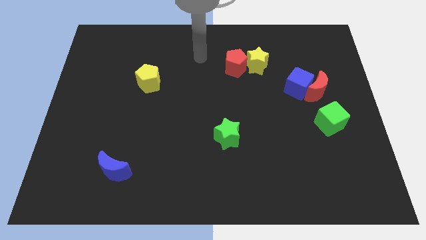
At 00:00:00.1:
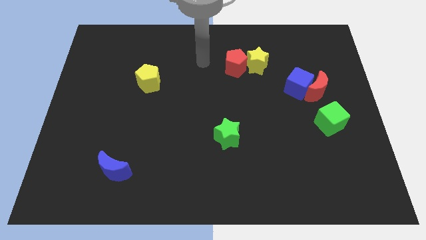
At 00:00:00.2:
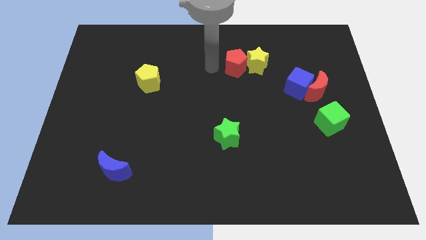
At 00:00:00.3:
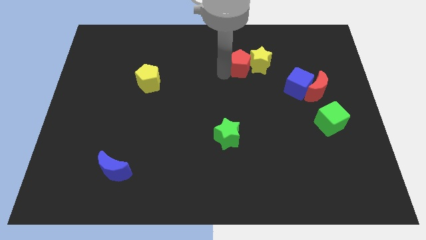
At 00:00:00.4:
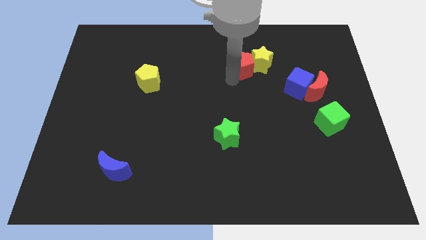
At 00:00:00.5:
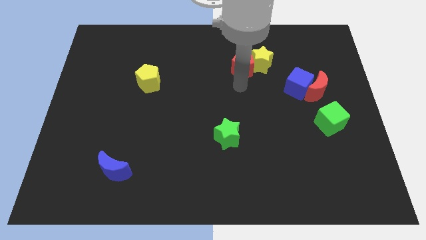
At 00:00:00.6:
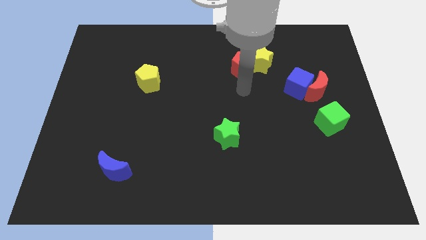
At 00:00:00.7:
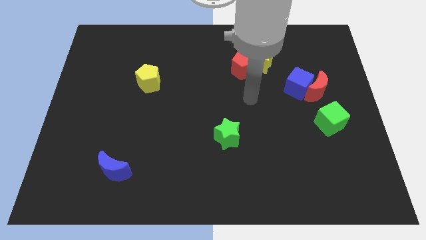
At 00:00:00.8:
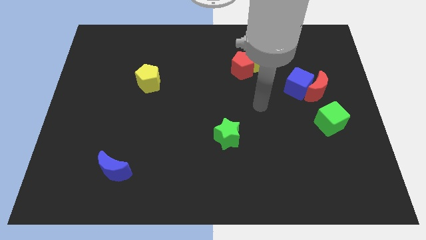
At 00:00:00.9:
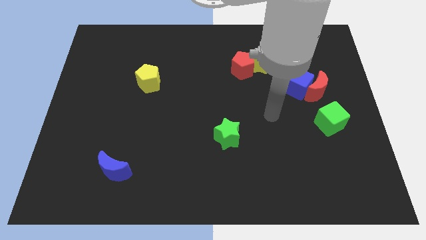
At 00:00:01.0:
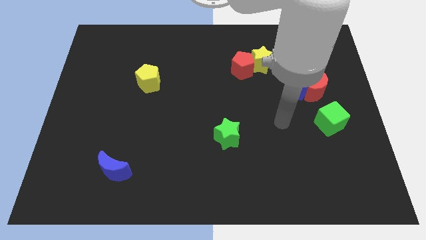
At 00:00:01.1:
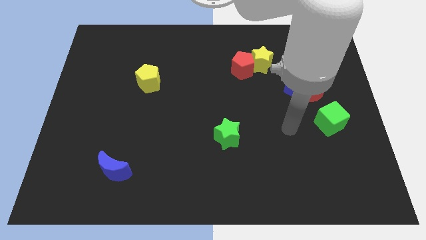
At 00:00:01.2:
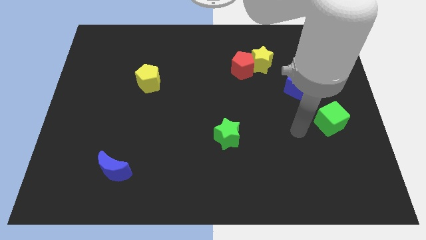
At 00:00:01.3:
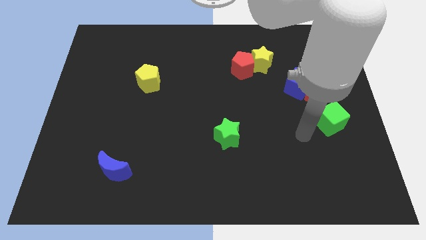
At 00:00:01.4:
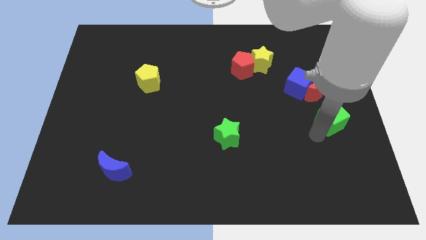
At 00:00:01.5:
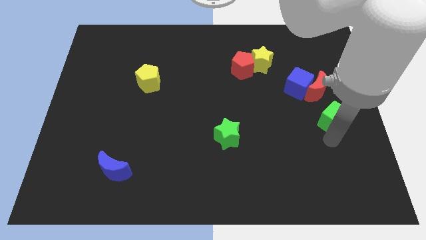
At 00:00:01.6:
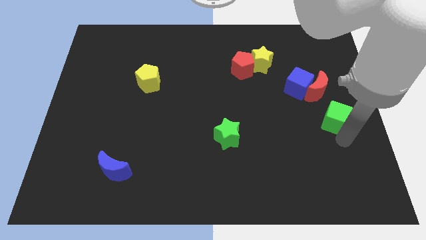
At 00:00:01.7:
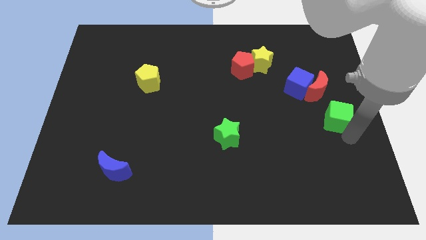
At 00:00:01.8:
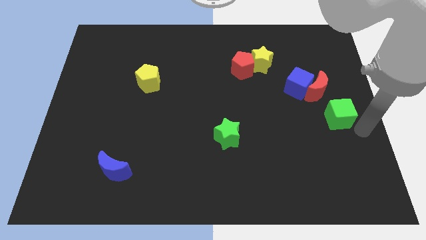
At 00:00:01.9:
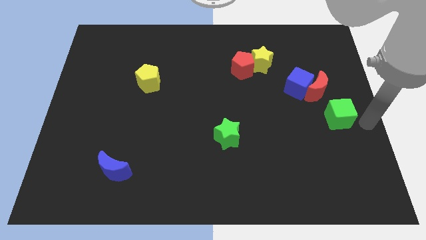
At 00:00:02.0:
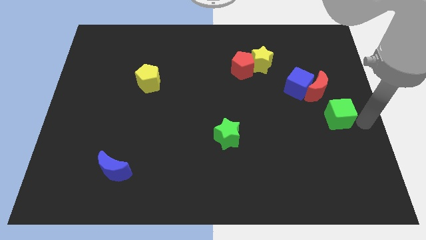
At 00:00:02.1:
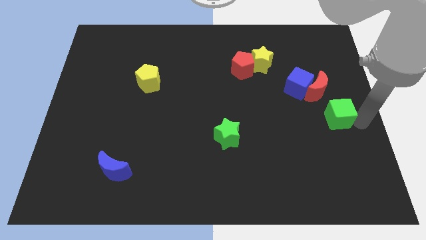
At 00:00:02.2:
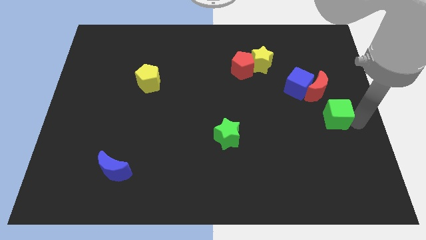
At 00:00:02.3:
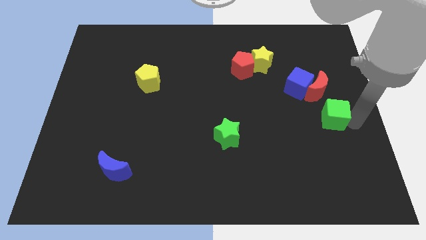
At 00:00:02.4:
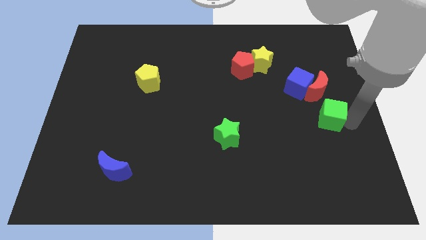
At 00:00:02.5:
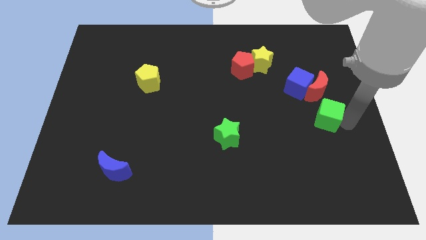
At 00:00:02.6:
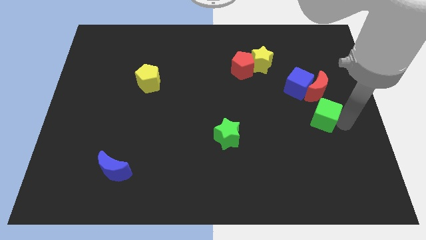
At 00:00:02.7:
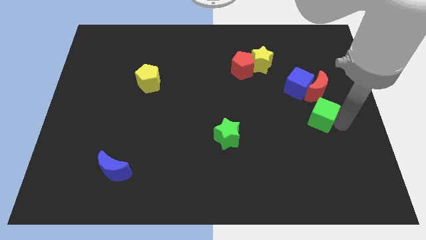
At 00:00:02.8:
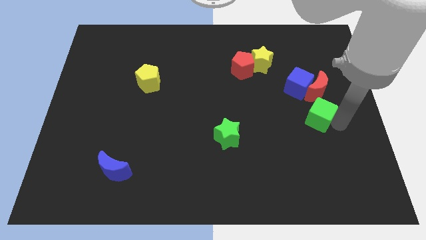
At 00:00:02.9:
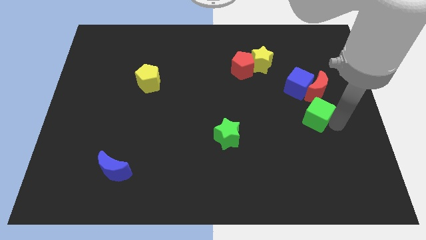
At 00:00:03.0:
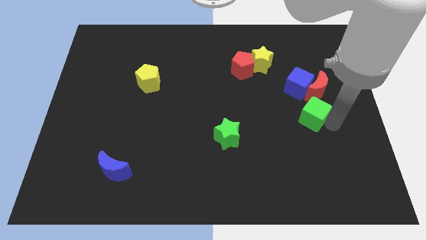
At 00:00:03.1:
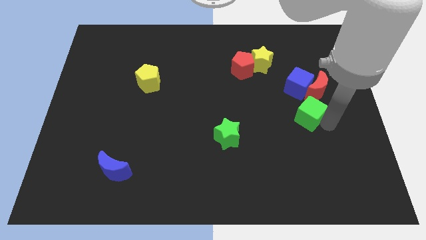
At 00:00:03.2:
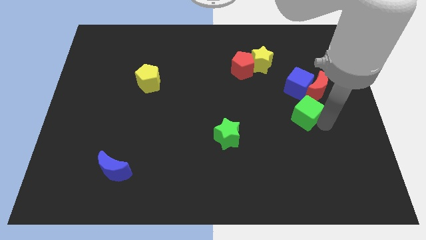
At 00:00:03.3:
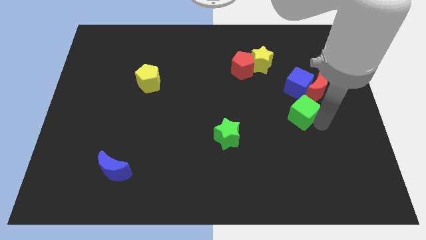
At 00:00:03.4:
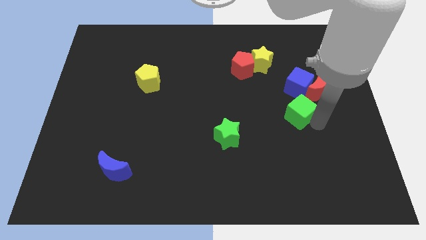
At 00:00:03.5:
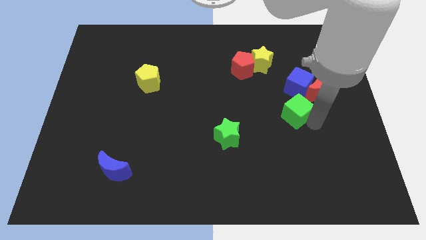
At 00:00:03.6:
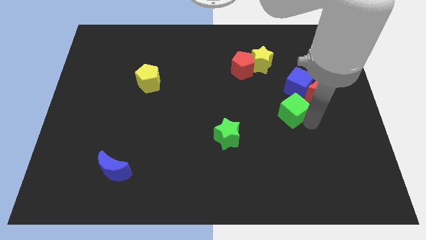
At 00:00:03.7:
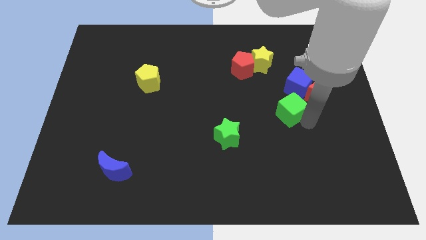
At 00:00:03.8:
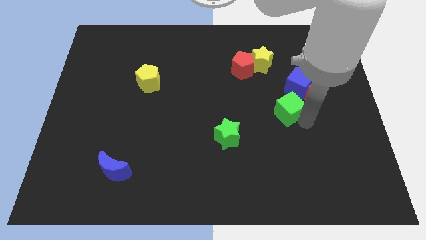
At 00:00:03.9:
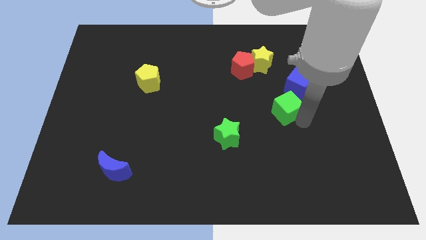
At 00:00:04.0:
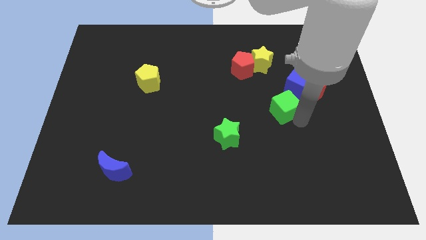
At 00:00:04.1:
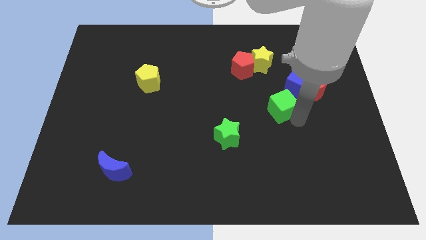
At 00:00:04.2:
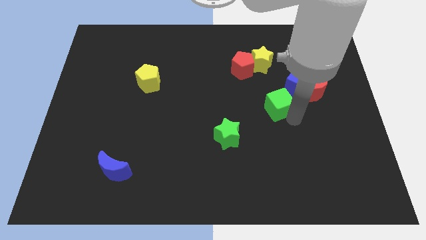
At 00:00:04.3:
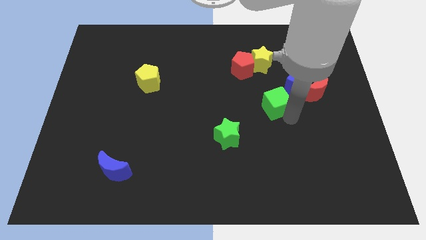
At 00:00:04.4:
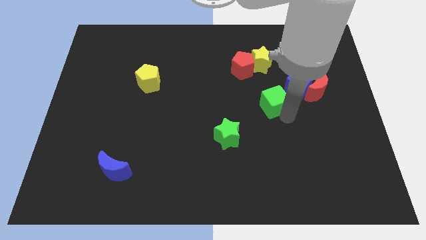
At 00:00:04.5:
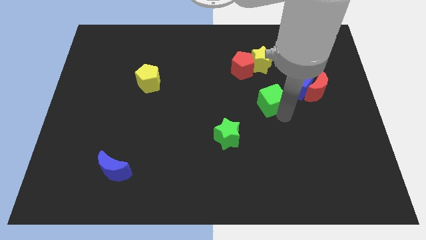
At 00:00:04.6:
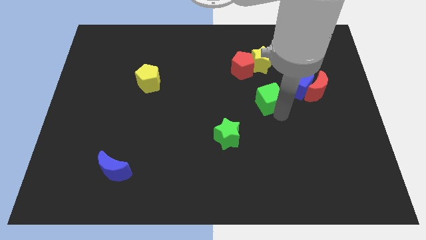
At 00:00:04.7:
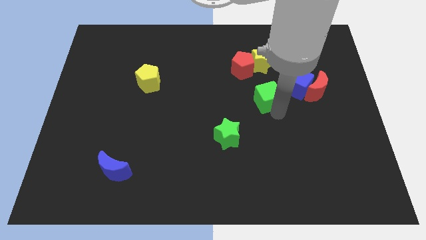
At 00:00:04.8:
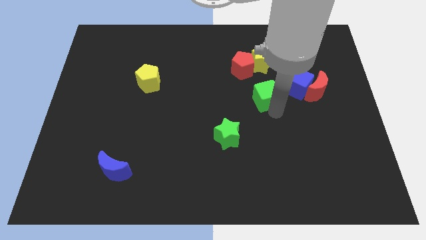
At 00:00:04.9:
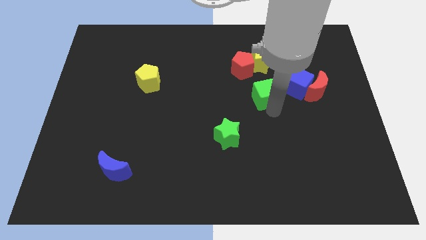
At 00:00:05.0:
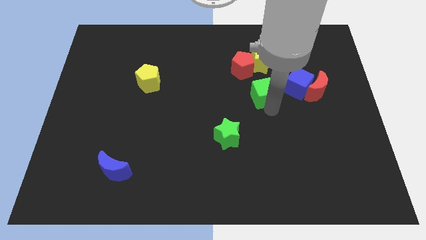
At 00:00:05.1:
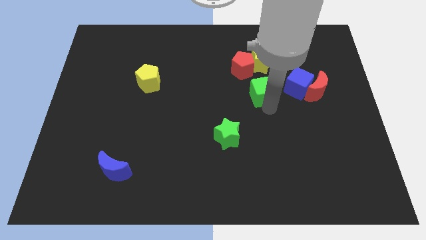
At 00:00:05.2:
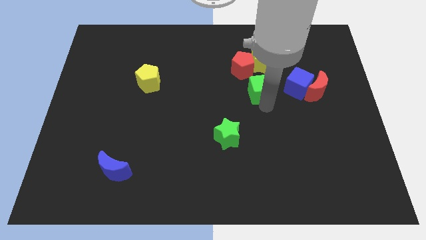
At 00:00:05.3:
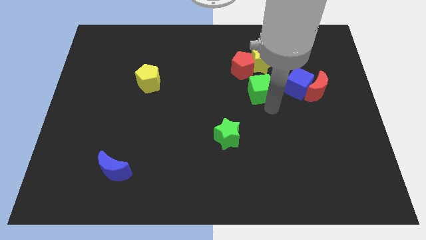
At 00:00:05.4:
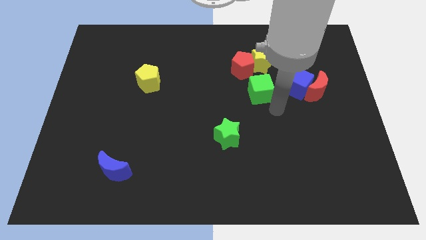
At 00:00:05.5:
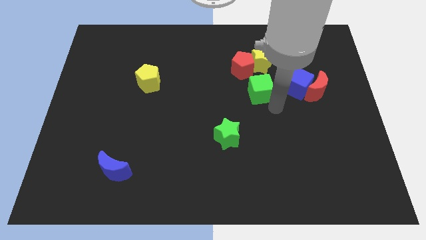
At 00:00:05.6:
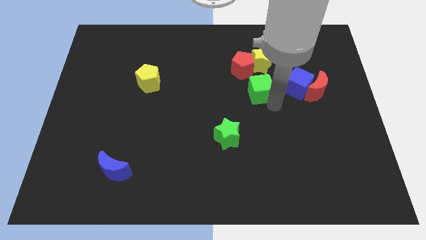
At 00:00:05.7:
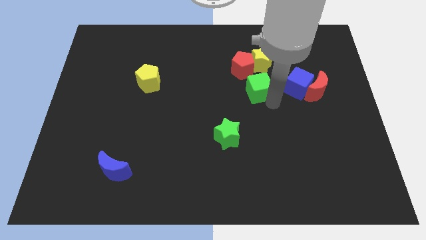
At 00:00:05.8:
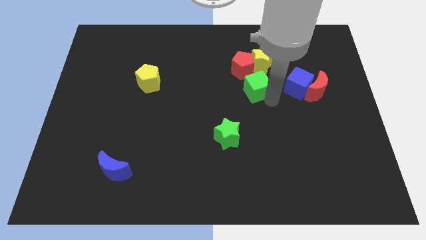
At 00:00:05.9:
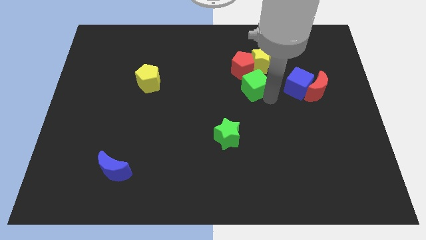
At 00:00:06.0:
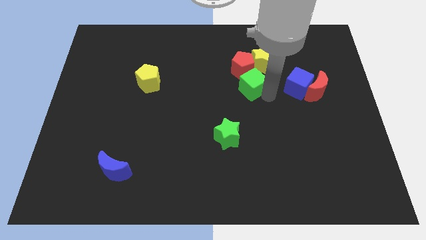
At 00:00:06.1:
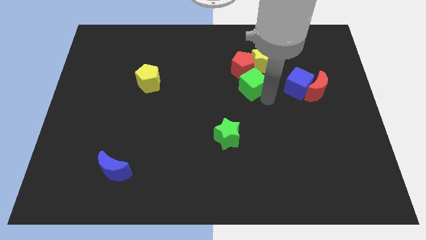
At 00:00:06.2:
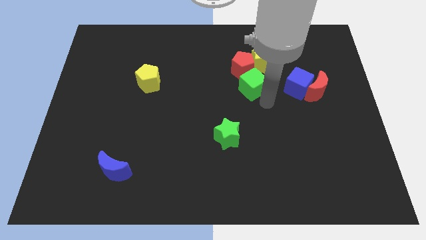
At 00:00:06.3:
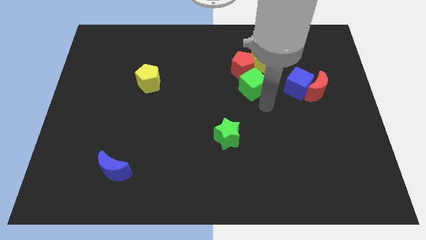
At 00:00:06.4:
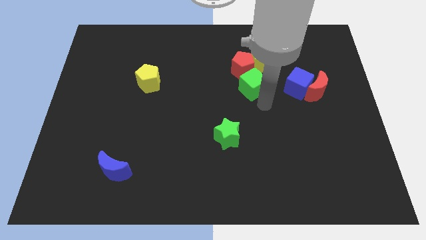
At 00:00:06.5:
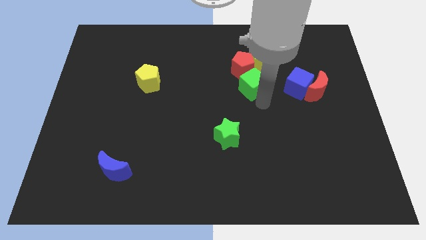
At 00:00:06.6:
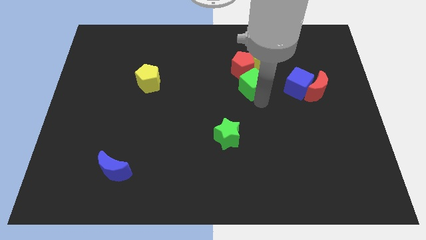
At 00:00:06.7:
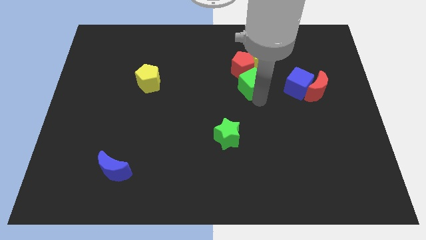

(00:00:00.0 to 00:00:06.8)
move the green cube close to the red pentagon

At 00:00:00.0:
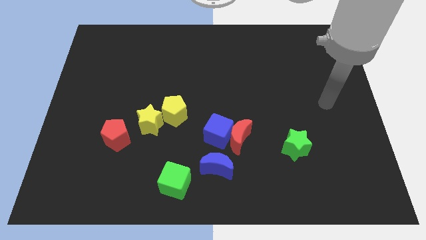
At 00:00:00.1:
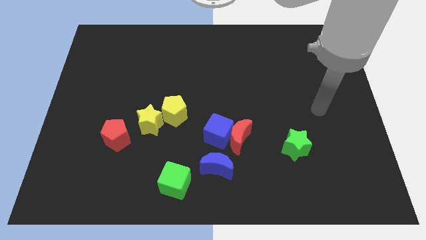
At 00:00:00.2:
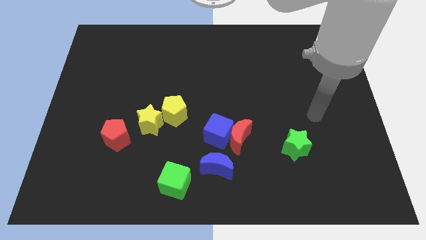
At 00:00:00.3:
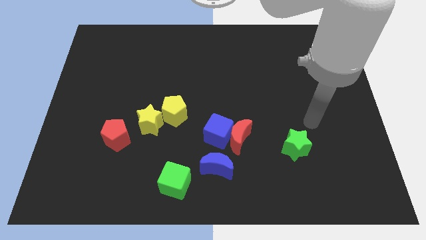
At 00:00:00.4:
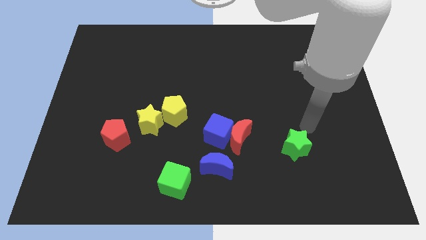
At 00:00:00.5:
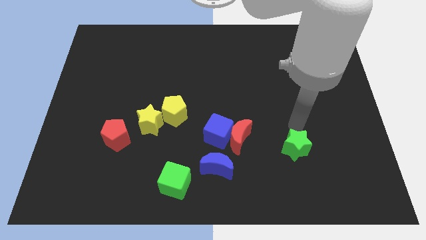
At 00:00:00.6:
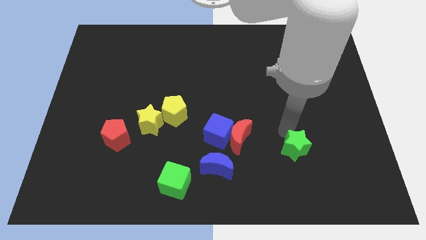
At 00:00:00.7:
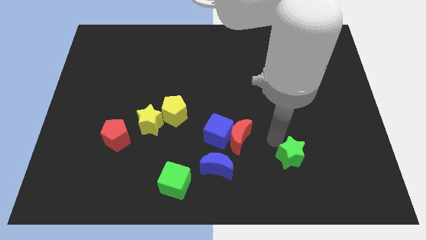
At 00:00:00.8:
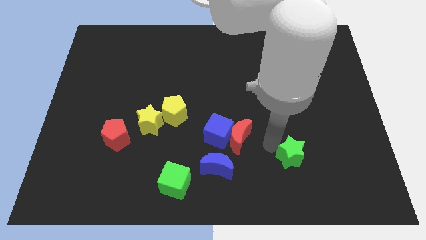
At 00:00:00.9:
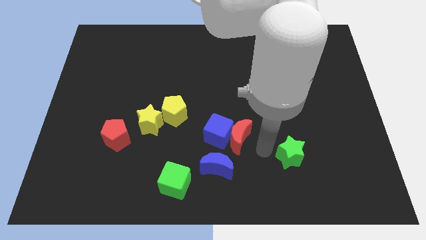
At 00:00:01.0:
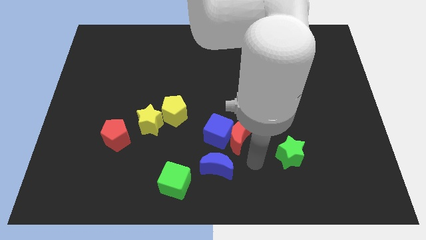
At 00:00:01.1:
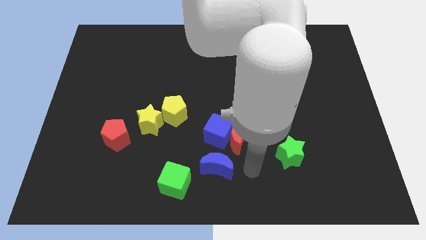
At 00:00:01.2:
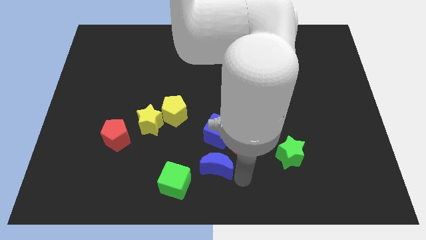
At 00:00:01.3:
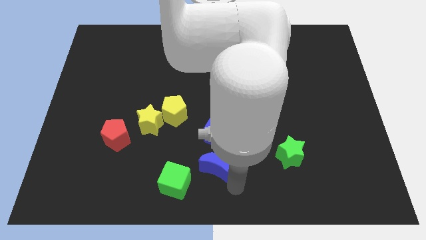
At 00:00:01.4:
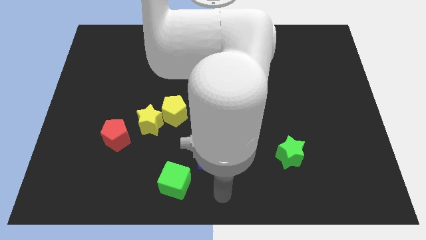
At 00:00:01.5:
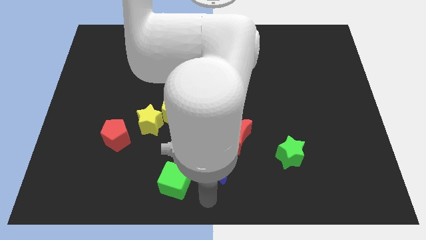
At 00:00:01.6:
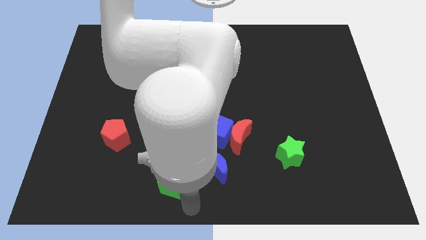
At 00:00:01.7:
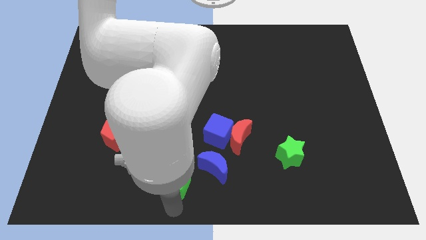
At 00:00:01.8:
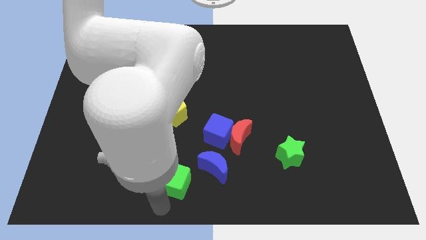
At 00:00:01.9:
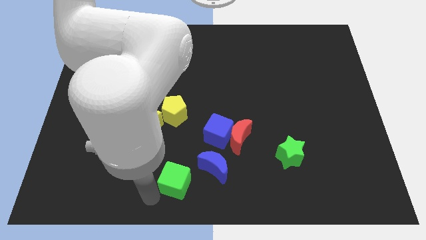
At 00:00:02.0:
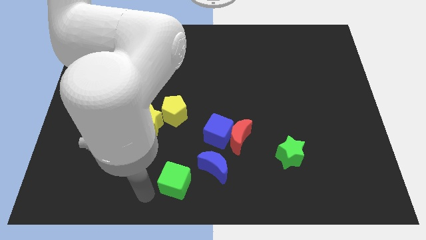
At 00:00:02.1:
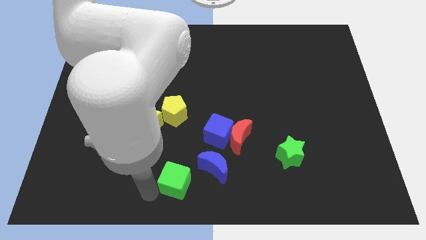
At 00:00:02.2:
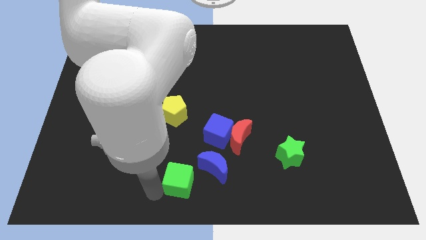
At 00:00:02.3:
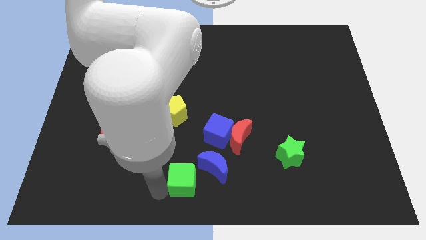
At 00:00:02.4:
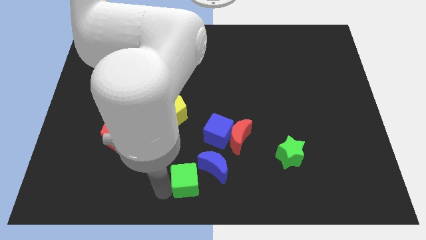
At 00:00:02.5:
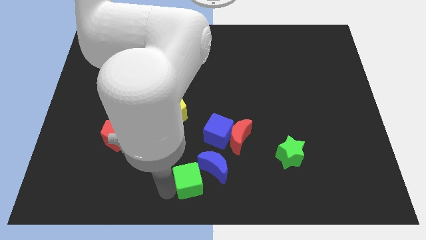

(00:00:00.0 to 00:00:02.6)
slide the green cube to the blue moon
